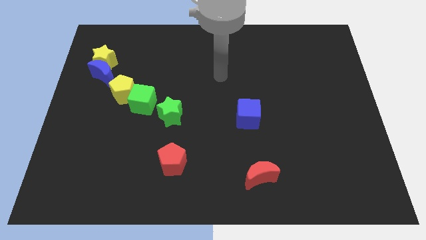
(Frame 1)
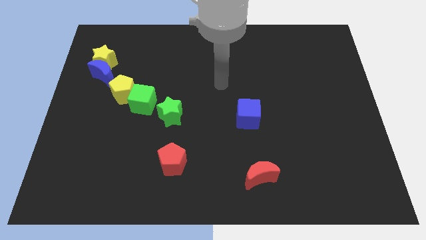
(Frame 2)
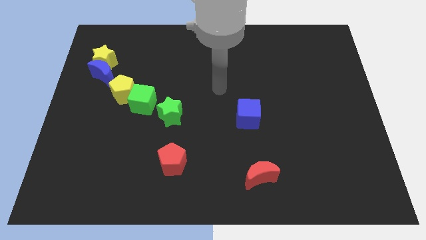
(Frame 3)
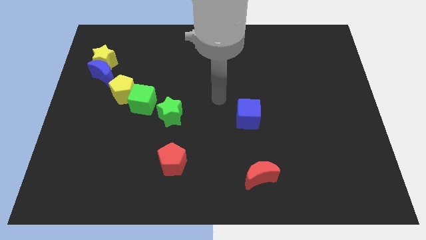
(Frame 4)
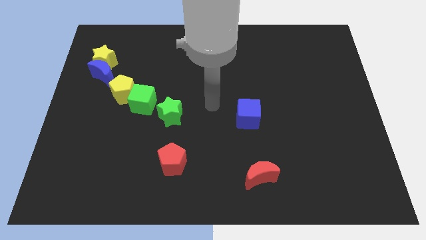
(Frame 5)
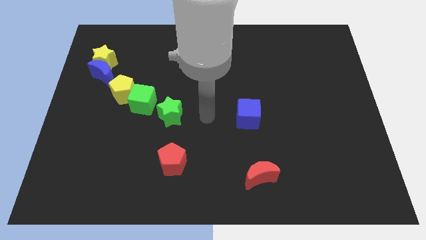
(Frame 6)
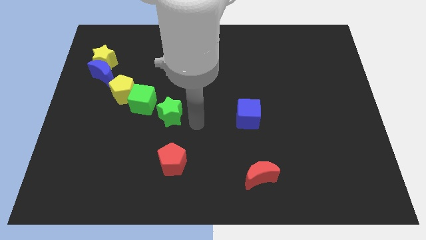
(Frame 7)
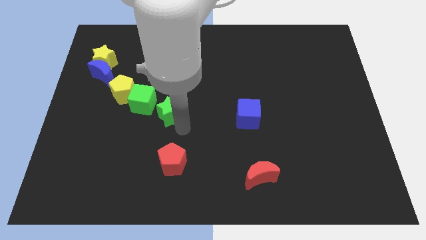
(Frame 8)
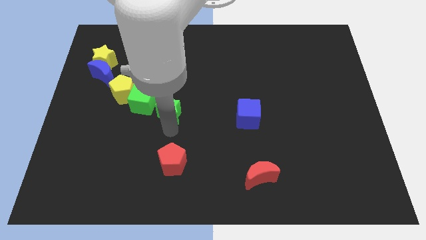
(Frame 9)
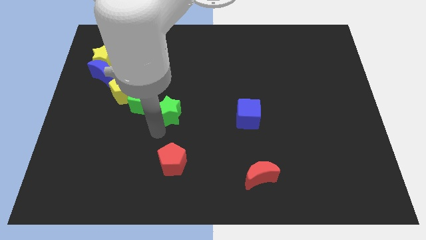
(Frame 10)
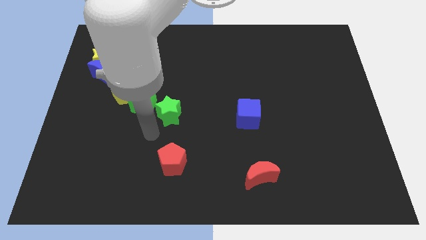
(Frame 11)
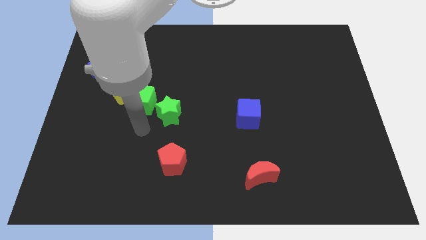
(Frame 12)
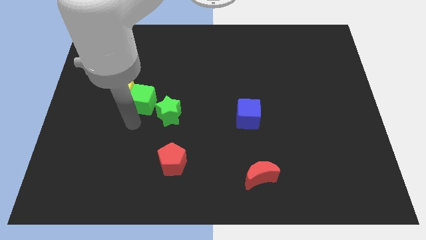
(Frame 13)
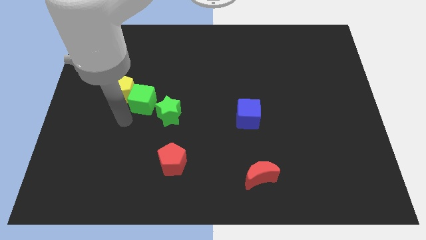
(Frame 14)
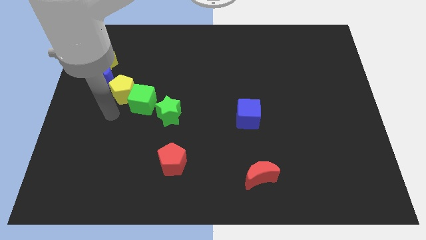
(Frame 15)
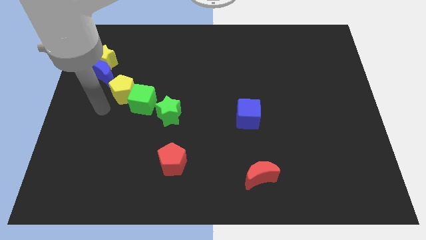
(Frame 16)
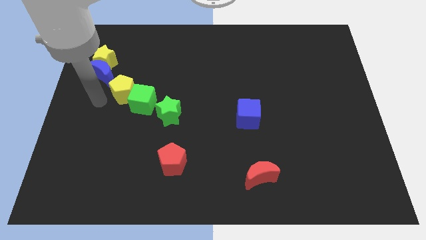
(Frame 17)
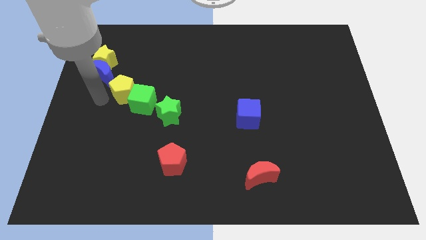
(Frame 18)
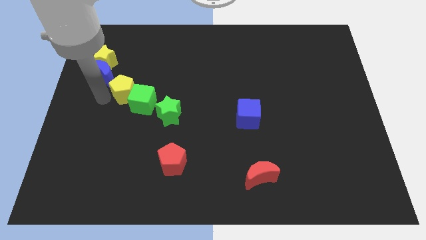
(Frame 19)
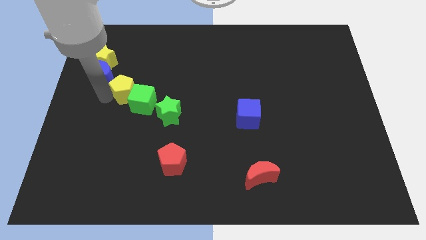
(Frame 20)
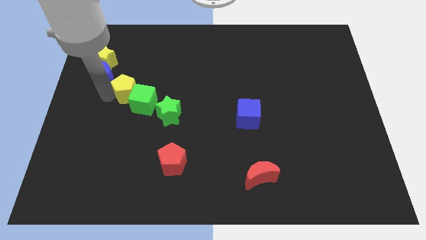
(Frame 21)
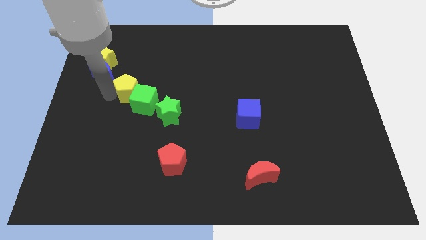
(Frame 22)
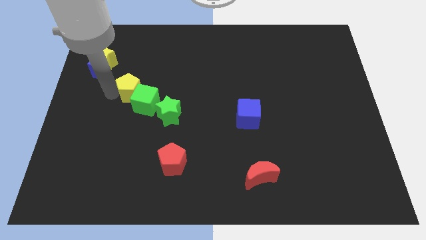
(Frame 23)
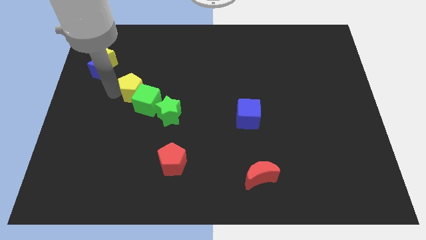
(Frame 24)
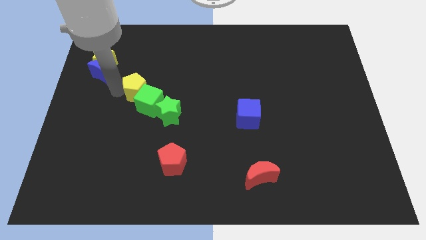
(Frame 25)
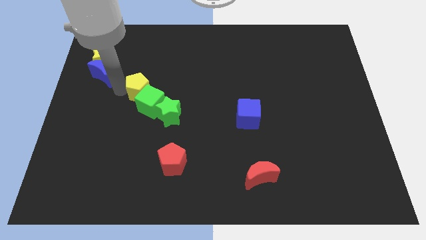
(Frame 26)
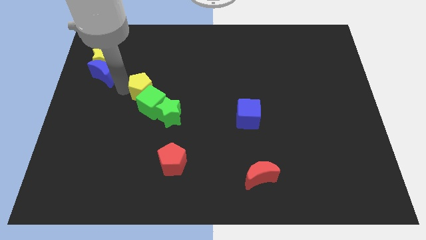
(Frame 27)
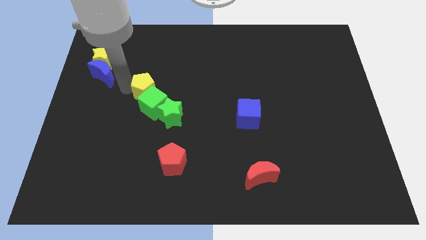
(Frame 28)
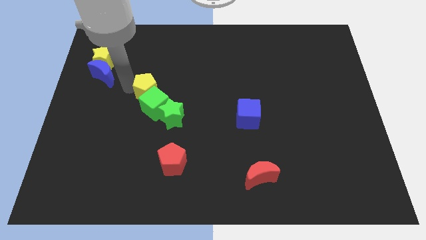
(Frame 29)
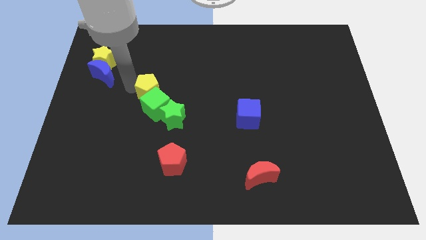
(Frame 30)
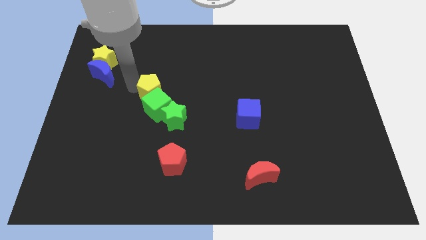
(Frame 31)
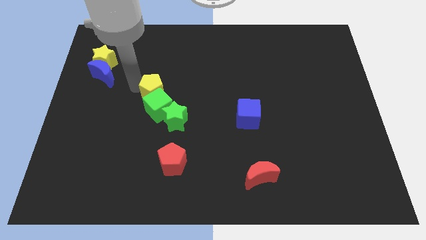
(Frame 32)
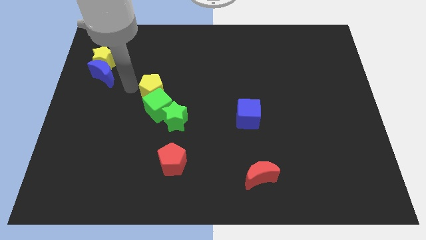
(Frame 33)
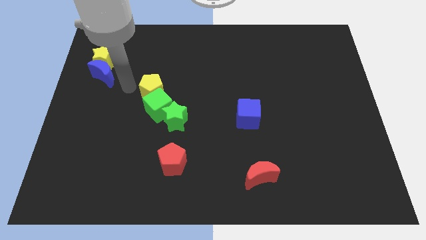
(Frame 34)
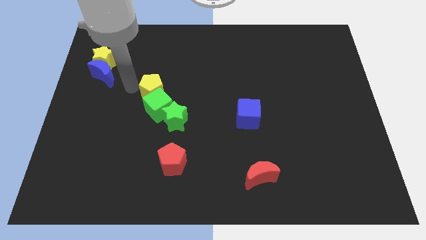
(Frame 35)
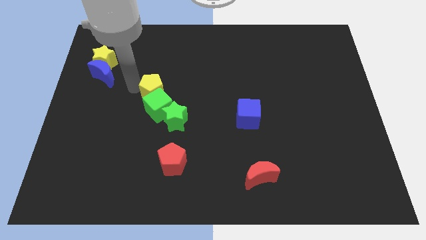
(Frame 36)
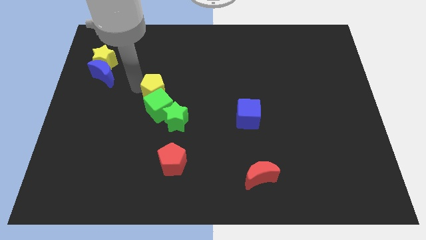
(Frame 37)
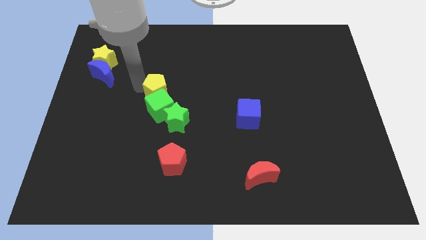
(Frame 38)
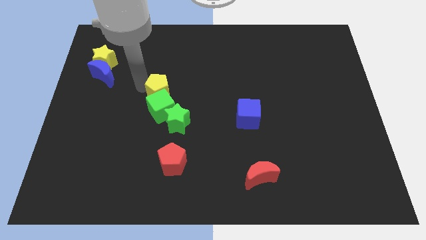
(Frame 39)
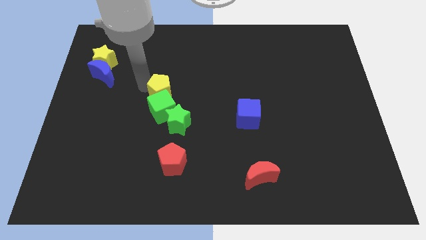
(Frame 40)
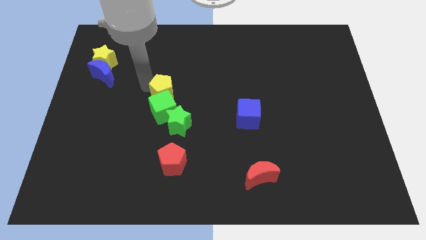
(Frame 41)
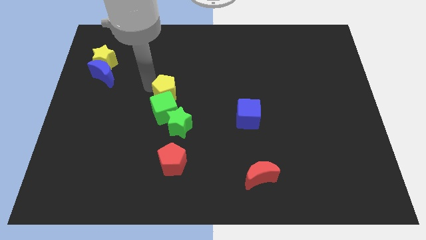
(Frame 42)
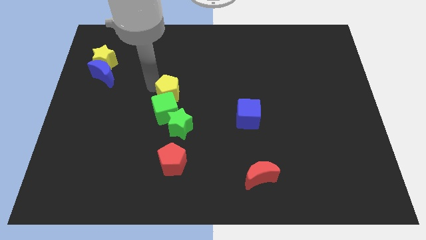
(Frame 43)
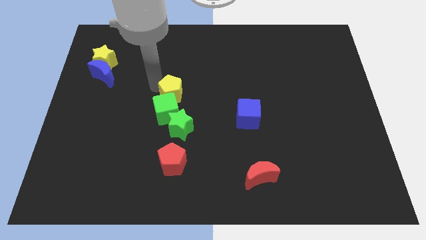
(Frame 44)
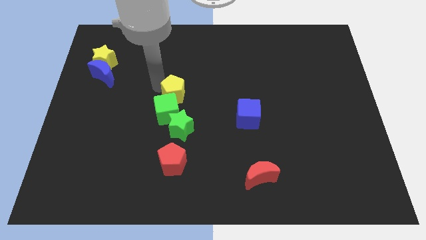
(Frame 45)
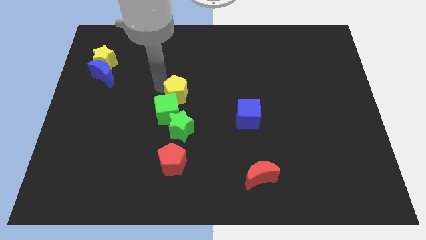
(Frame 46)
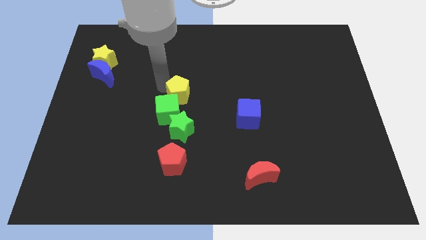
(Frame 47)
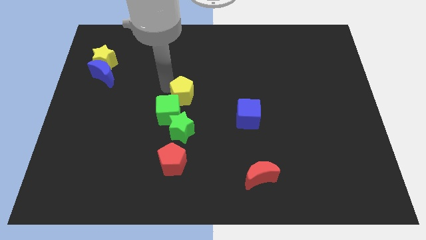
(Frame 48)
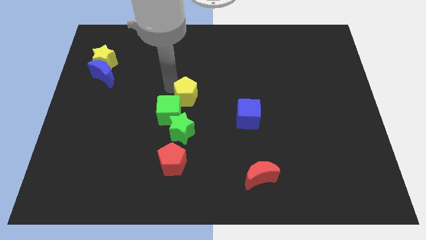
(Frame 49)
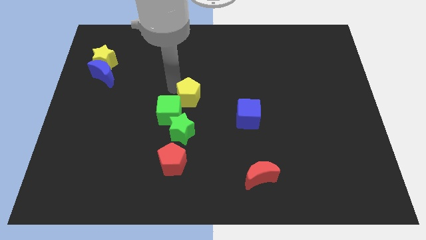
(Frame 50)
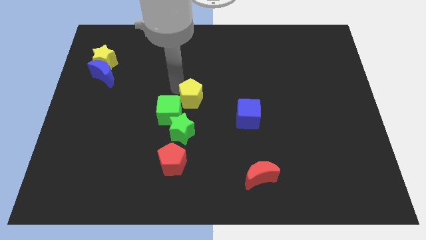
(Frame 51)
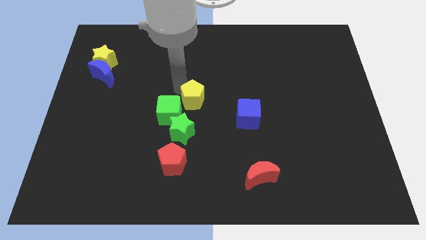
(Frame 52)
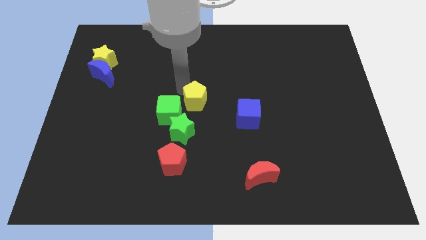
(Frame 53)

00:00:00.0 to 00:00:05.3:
put the yellow pentagon to the left of the blue cube

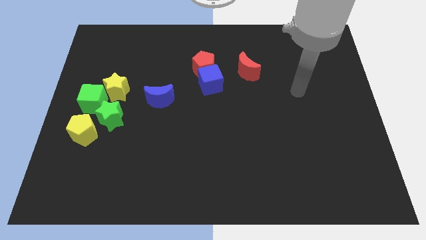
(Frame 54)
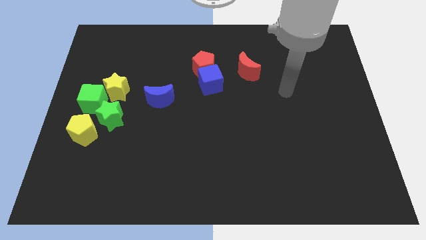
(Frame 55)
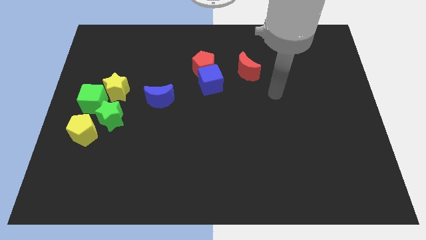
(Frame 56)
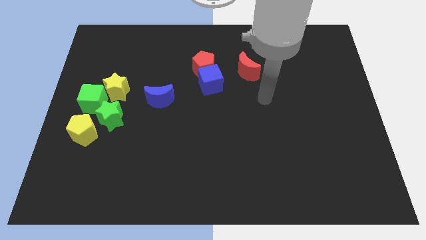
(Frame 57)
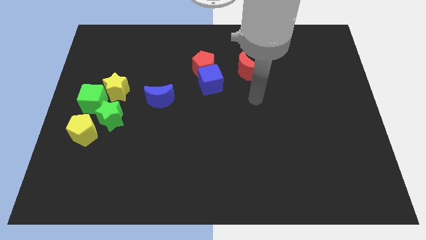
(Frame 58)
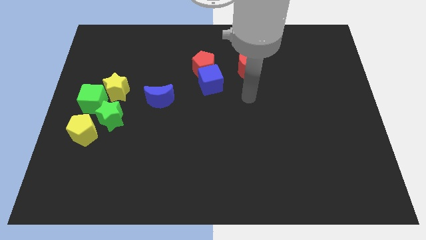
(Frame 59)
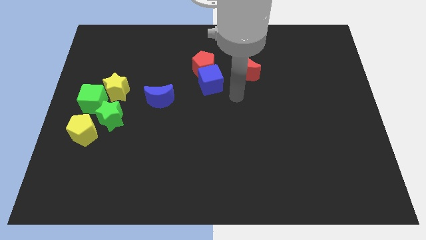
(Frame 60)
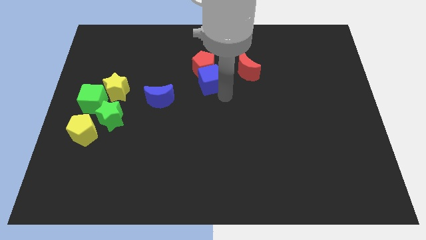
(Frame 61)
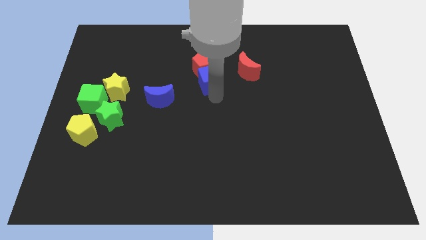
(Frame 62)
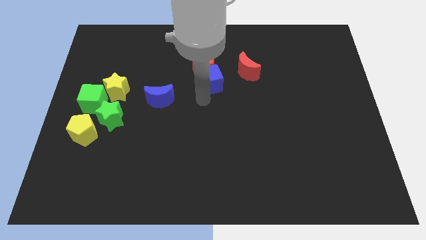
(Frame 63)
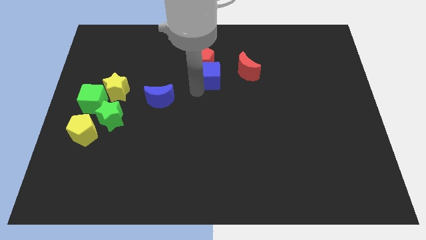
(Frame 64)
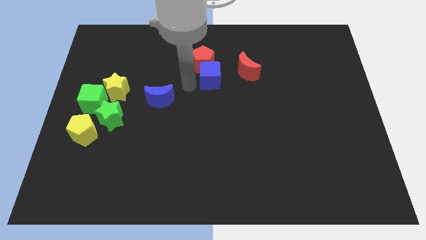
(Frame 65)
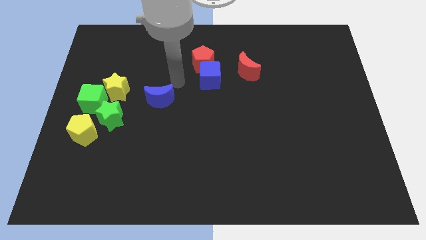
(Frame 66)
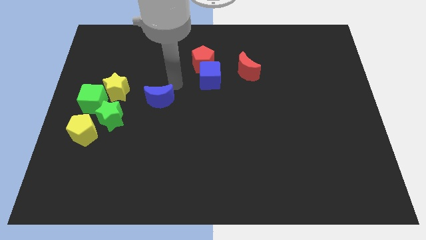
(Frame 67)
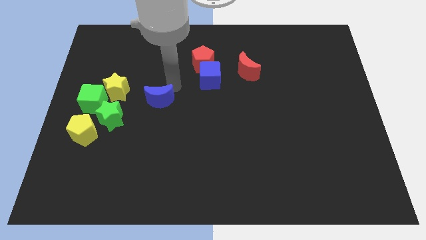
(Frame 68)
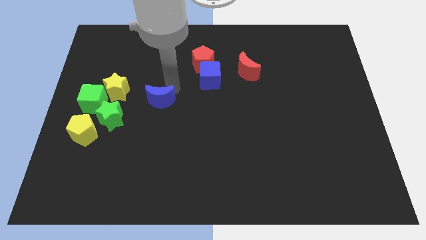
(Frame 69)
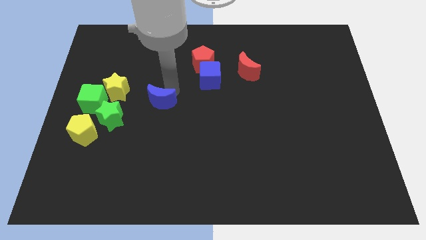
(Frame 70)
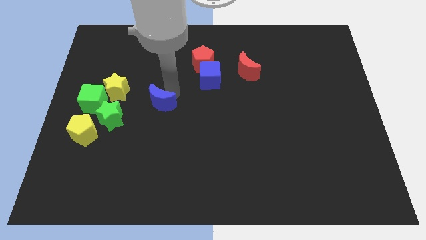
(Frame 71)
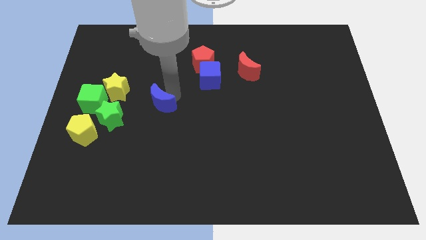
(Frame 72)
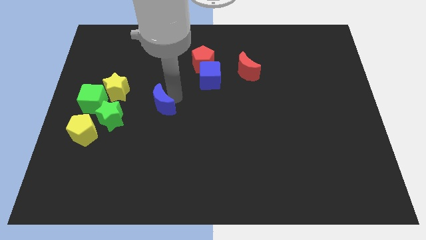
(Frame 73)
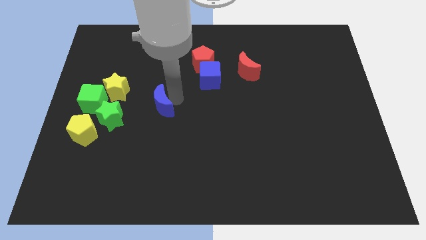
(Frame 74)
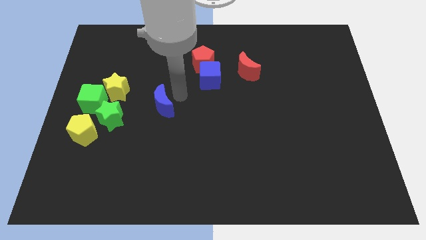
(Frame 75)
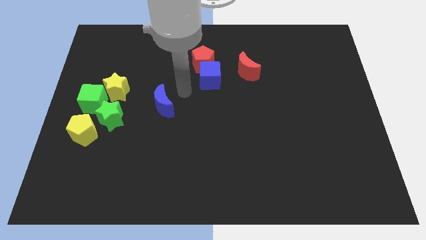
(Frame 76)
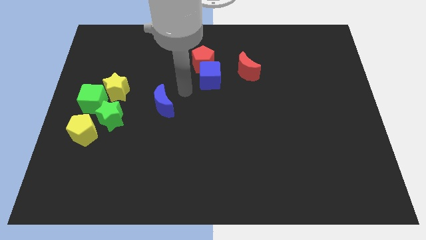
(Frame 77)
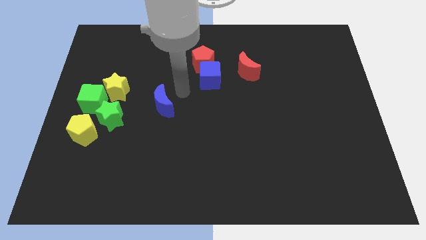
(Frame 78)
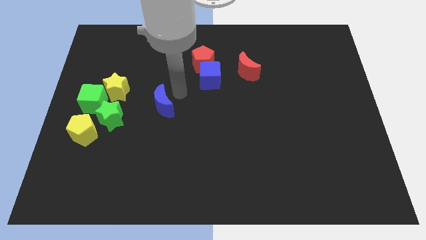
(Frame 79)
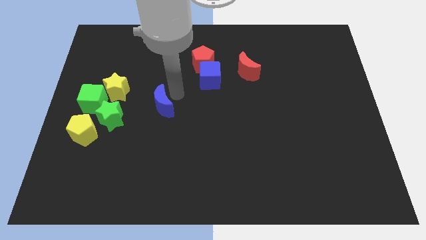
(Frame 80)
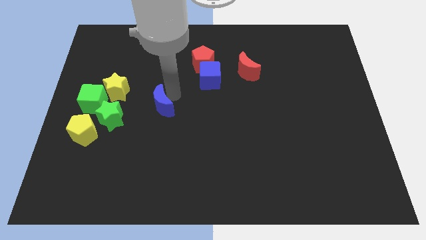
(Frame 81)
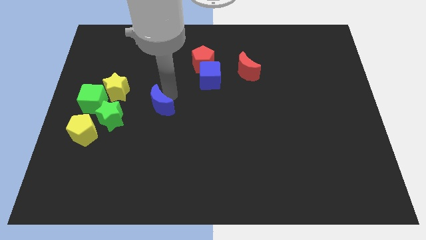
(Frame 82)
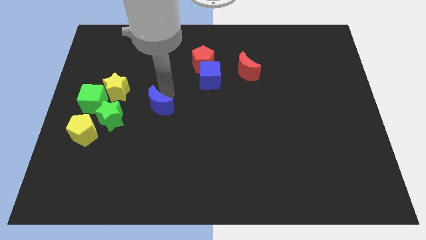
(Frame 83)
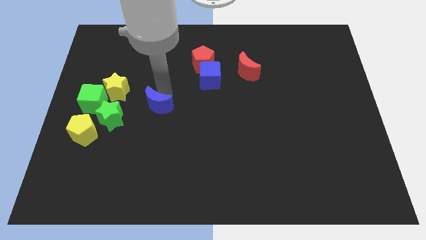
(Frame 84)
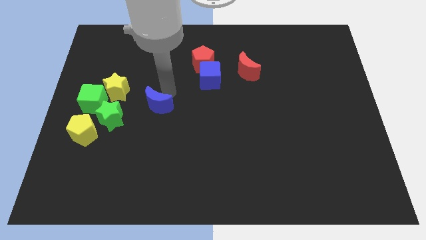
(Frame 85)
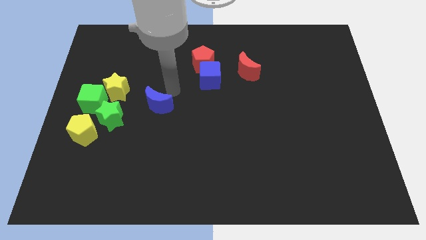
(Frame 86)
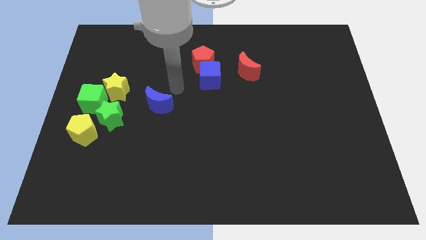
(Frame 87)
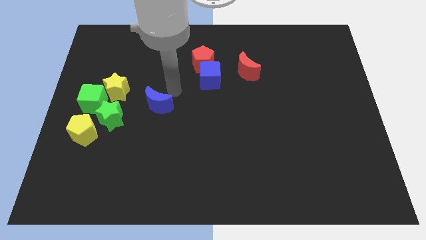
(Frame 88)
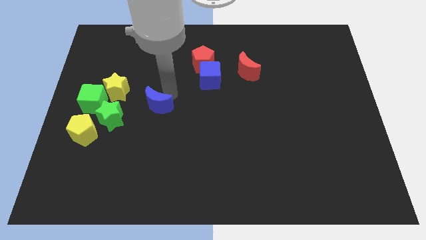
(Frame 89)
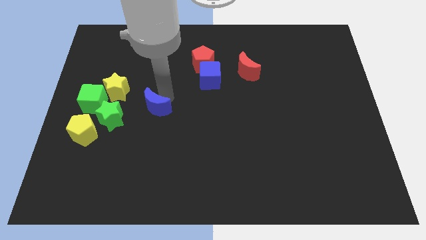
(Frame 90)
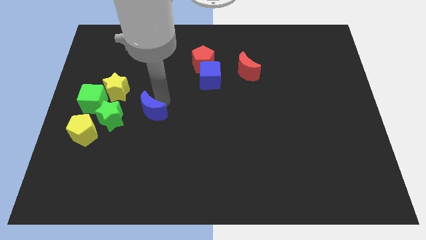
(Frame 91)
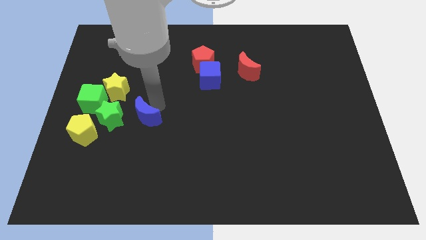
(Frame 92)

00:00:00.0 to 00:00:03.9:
push the blue moon right of the yellow pentagon
